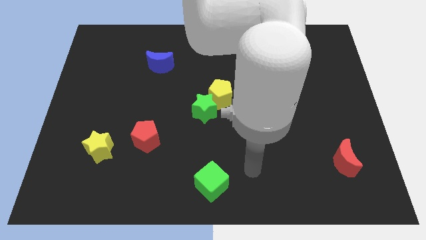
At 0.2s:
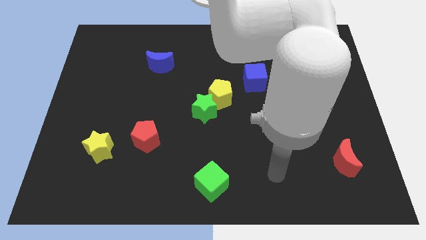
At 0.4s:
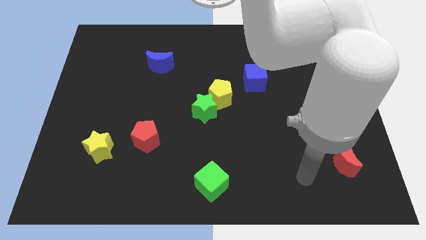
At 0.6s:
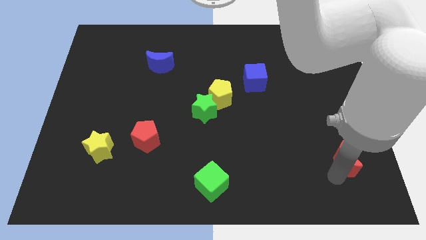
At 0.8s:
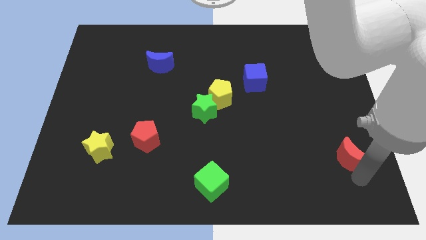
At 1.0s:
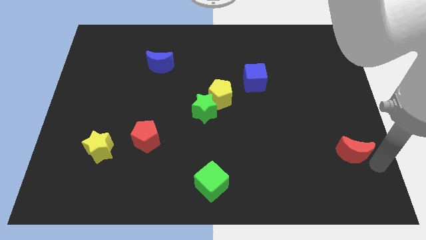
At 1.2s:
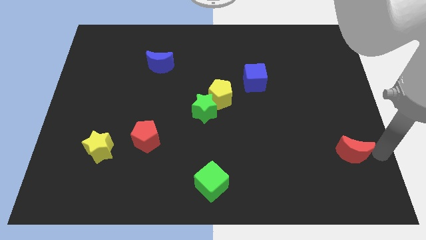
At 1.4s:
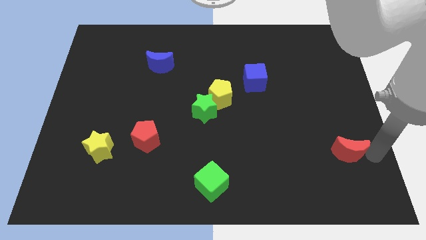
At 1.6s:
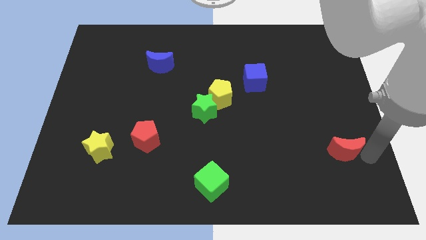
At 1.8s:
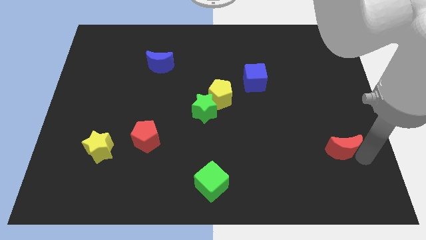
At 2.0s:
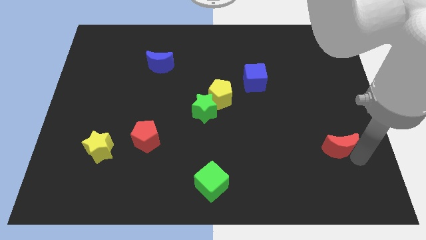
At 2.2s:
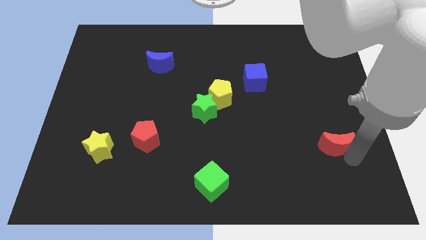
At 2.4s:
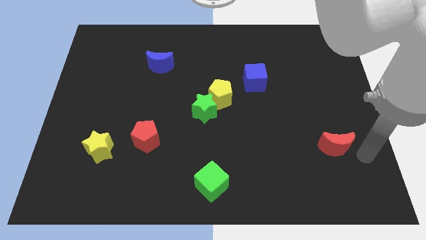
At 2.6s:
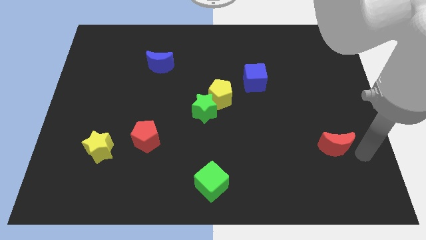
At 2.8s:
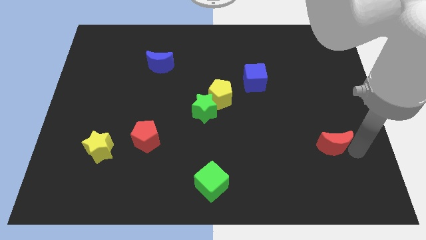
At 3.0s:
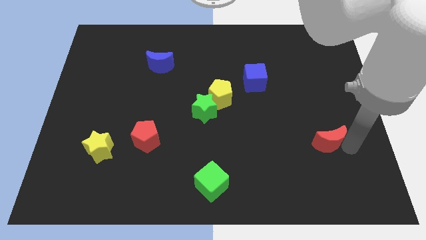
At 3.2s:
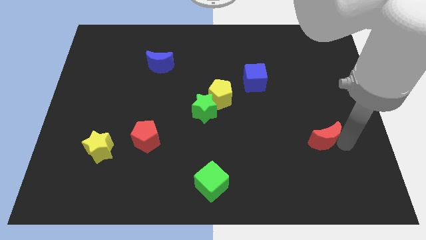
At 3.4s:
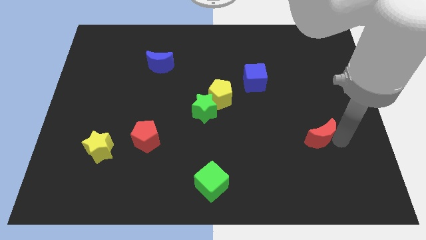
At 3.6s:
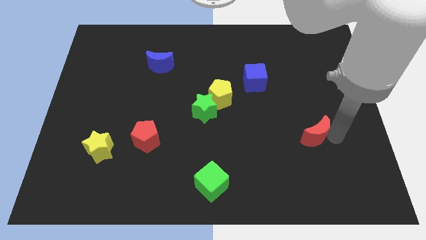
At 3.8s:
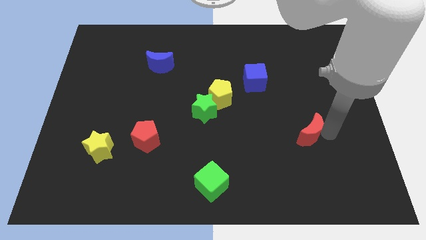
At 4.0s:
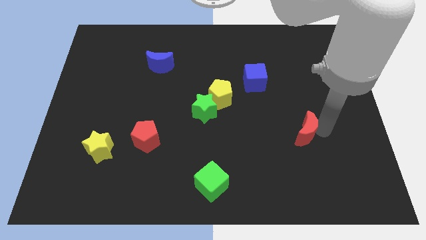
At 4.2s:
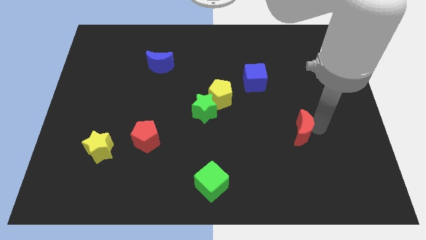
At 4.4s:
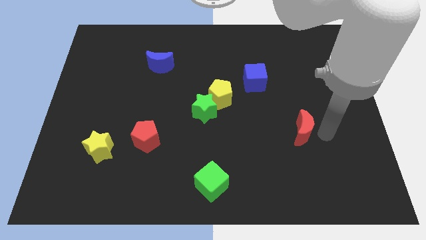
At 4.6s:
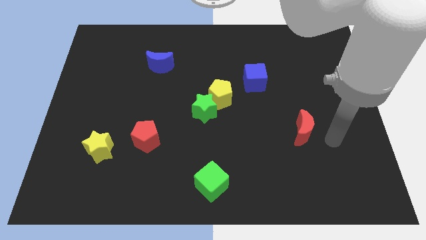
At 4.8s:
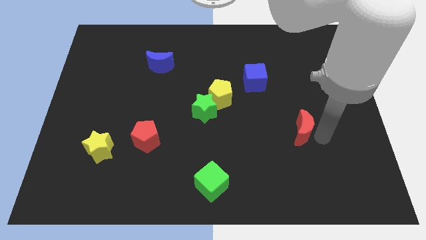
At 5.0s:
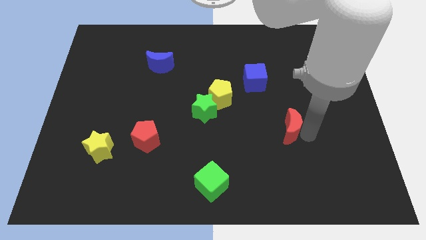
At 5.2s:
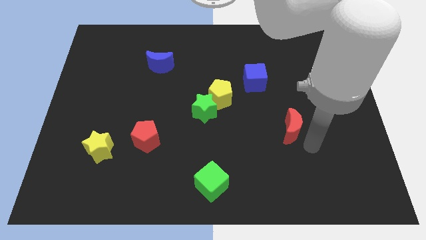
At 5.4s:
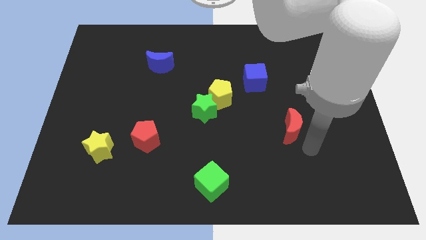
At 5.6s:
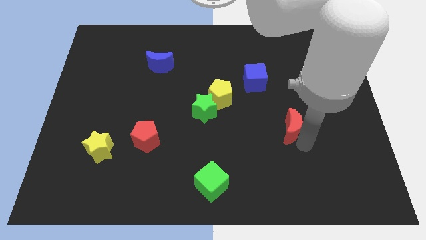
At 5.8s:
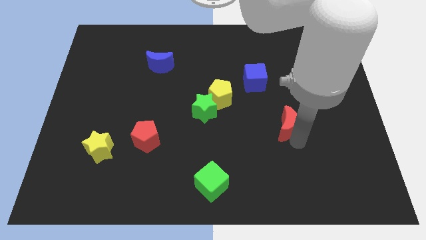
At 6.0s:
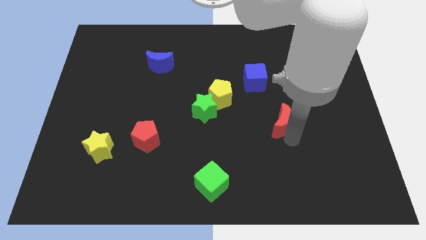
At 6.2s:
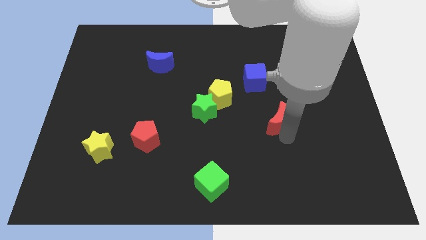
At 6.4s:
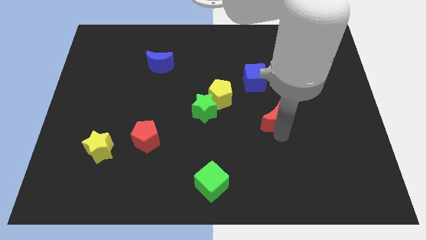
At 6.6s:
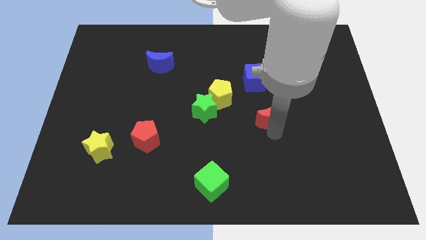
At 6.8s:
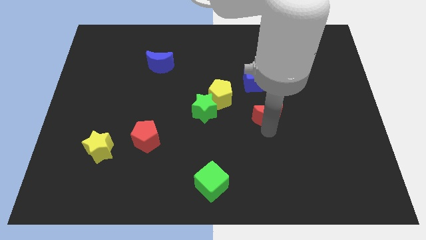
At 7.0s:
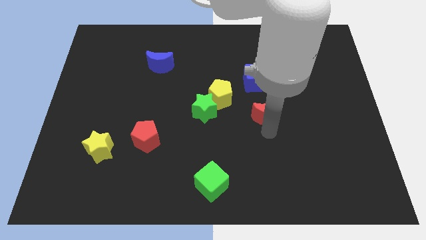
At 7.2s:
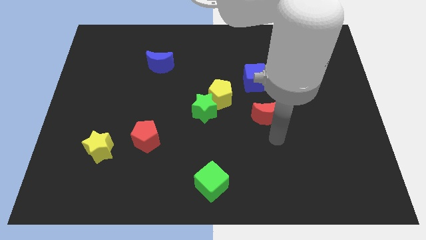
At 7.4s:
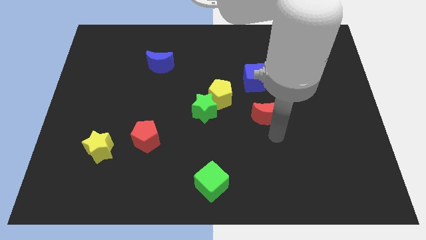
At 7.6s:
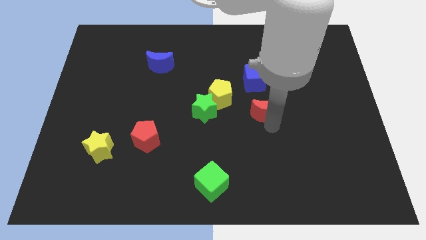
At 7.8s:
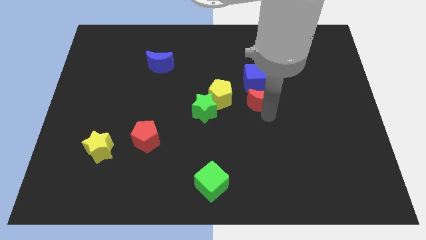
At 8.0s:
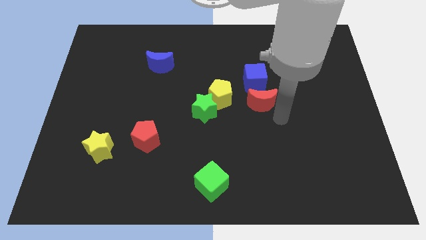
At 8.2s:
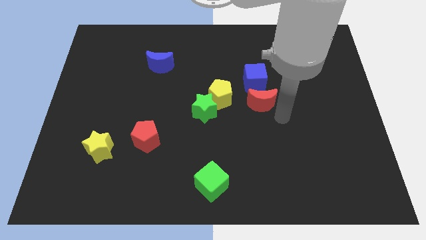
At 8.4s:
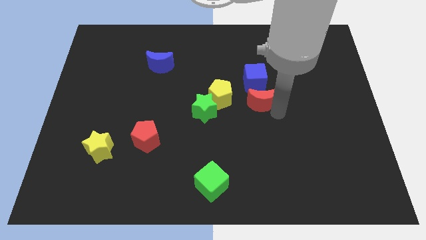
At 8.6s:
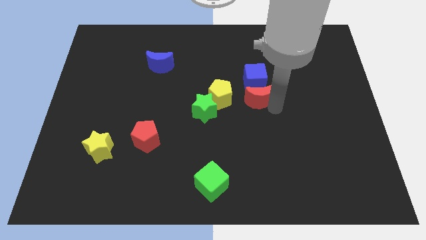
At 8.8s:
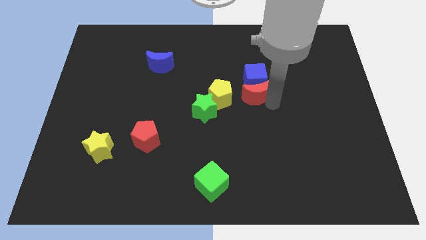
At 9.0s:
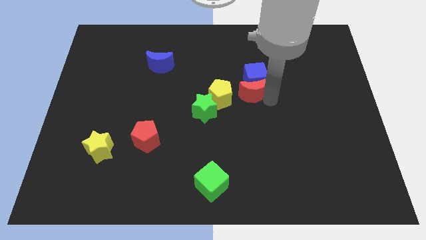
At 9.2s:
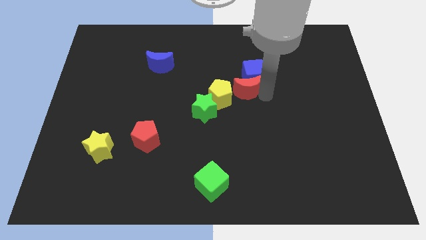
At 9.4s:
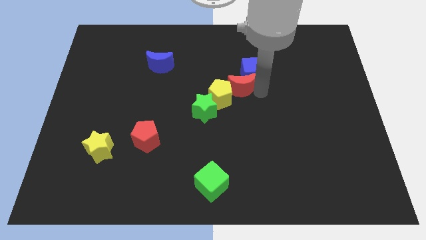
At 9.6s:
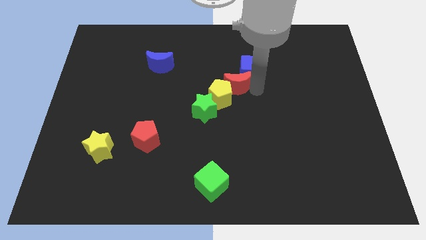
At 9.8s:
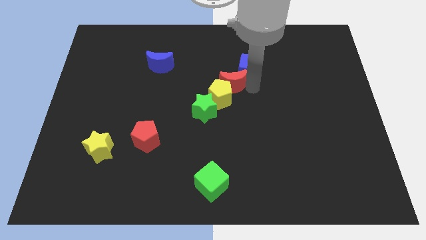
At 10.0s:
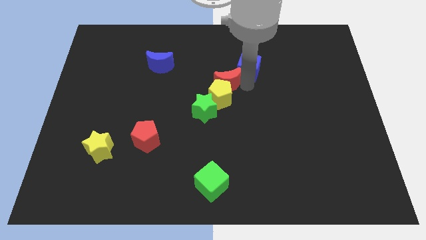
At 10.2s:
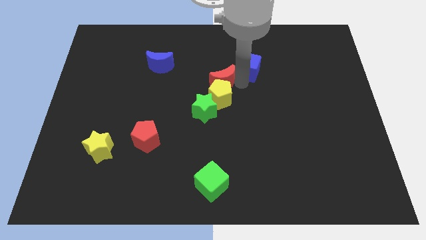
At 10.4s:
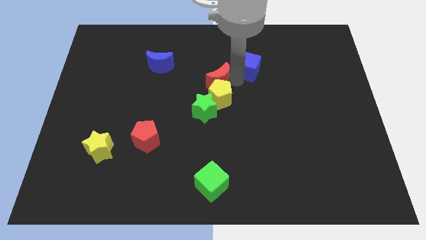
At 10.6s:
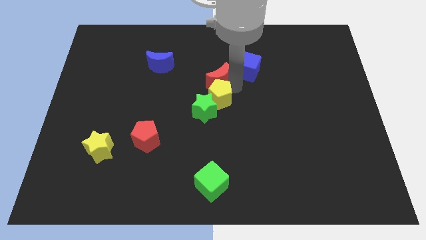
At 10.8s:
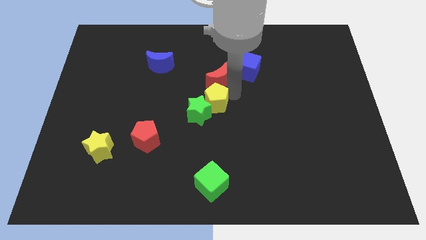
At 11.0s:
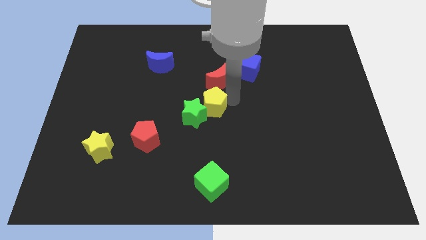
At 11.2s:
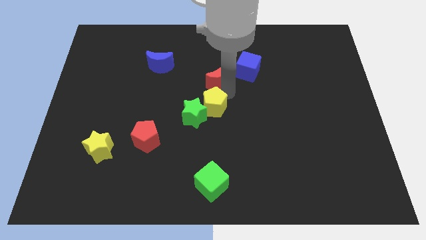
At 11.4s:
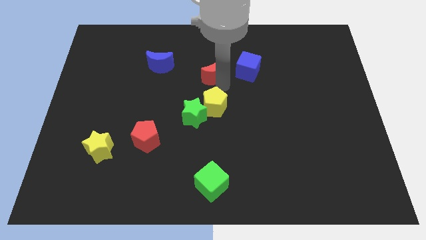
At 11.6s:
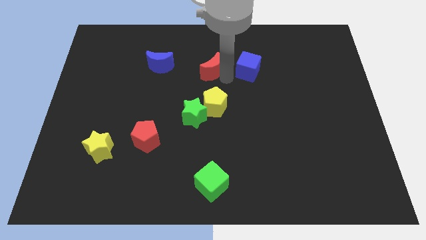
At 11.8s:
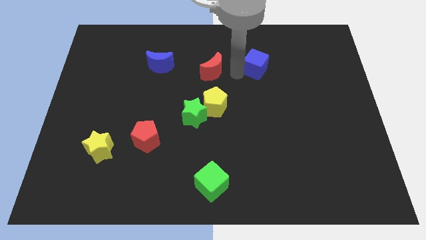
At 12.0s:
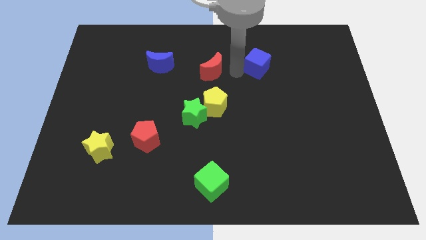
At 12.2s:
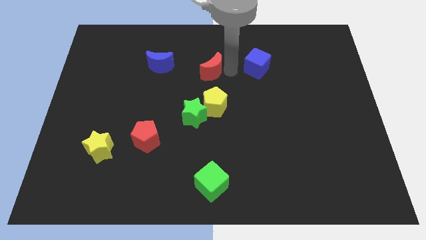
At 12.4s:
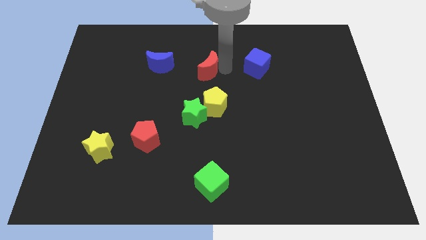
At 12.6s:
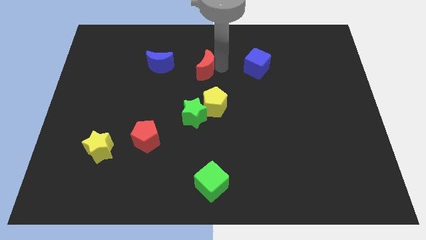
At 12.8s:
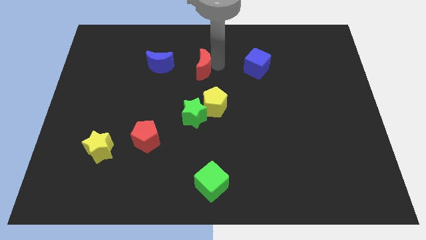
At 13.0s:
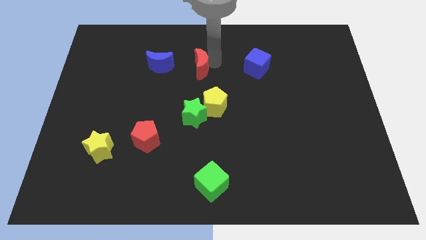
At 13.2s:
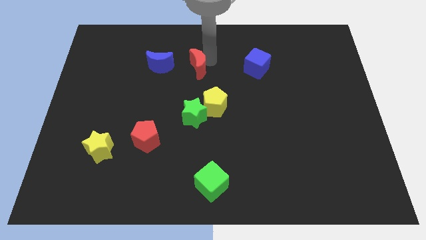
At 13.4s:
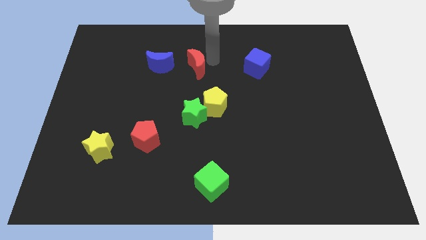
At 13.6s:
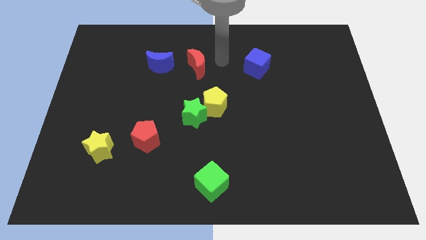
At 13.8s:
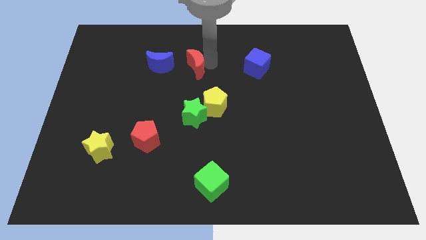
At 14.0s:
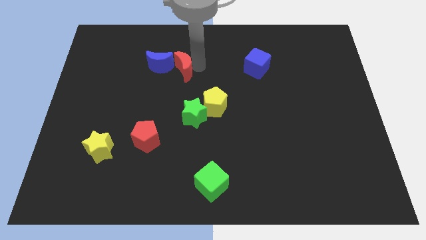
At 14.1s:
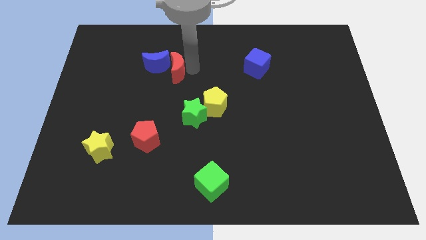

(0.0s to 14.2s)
move the red moon to the blue moon
